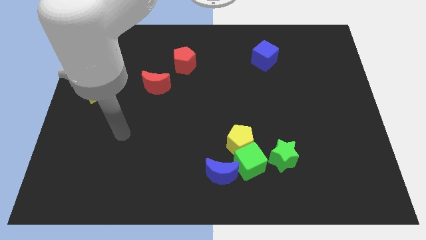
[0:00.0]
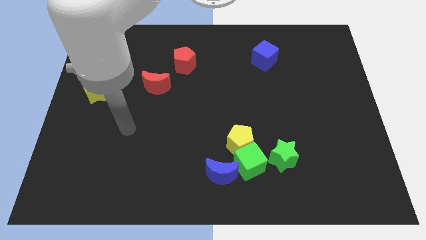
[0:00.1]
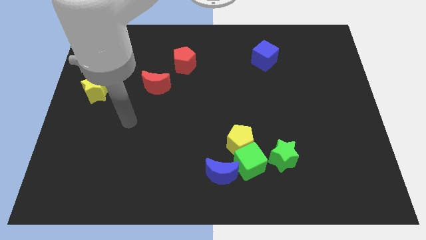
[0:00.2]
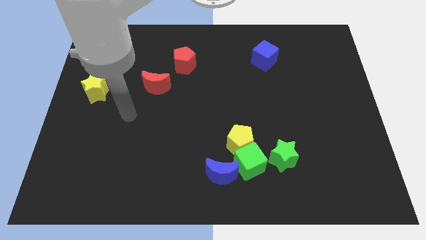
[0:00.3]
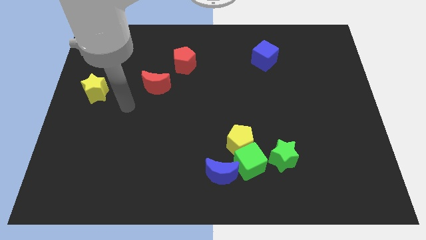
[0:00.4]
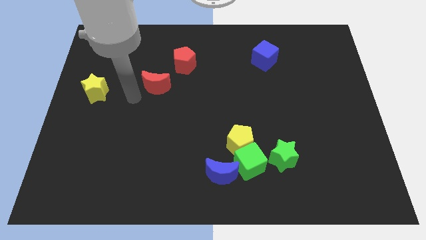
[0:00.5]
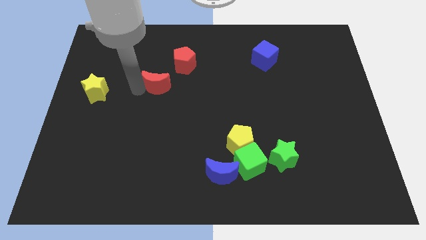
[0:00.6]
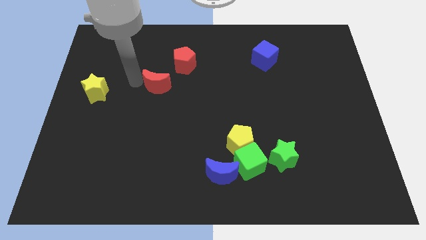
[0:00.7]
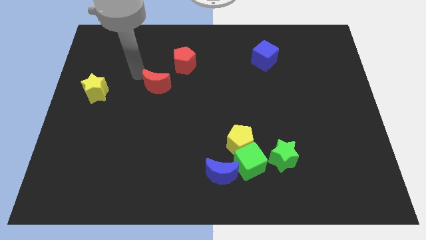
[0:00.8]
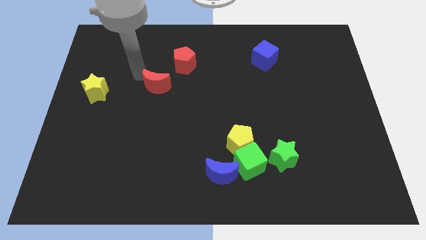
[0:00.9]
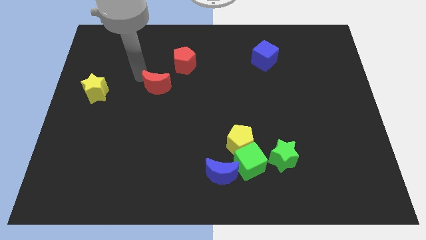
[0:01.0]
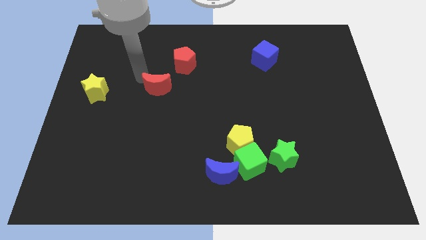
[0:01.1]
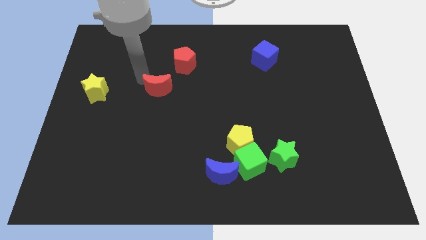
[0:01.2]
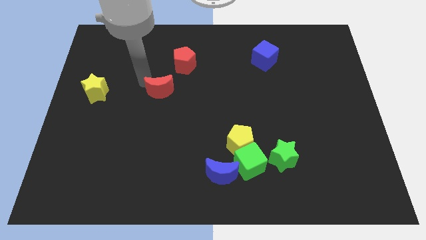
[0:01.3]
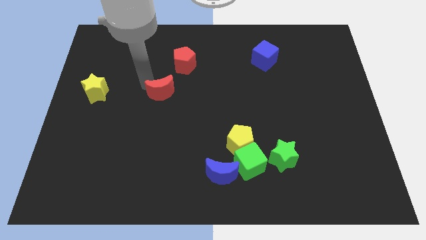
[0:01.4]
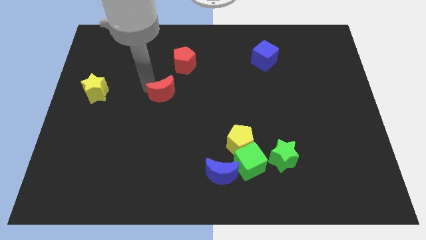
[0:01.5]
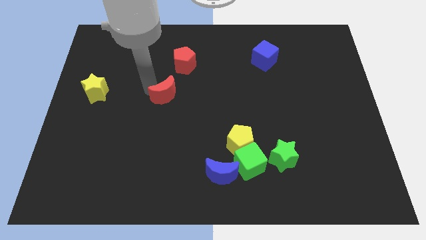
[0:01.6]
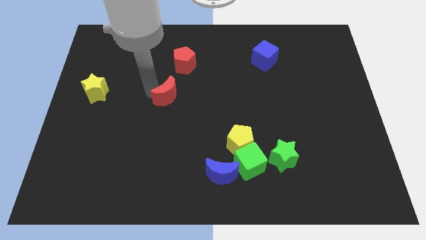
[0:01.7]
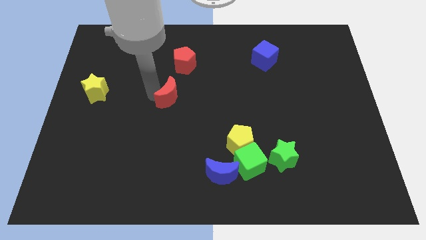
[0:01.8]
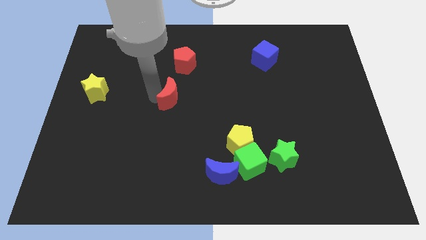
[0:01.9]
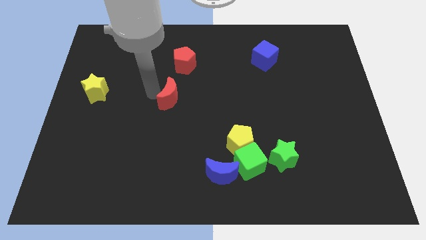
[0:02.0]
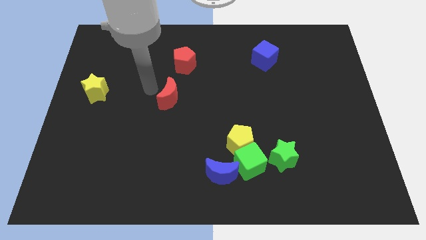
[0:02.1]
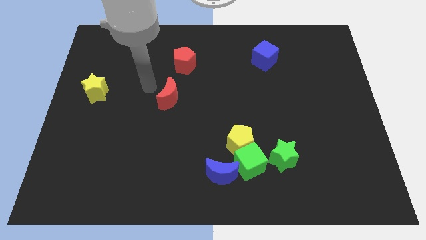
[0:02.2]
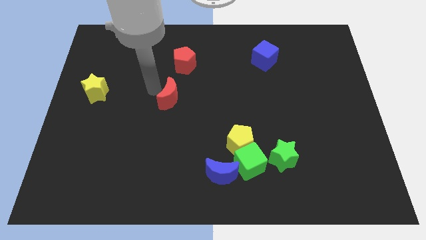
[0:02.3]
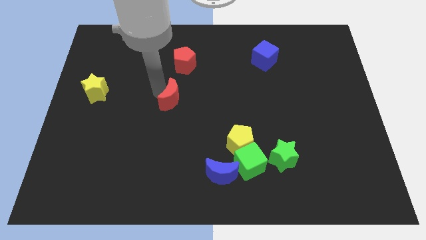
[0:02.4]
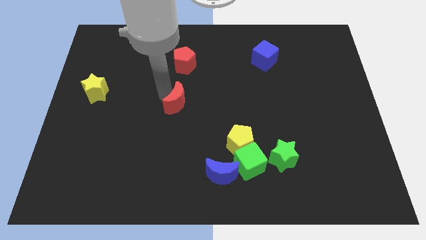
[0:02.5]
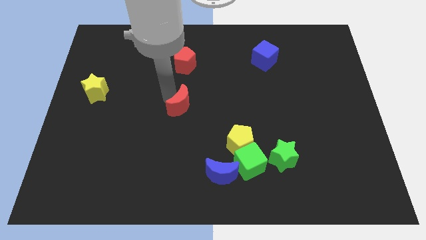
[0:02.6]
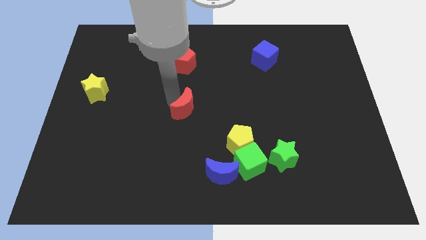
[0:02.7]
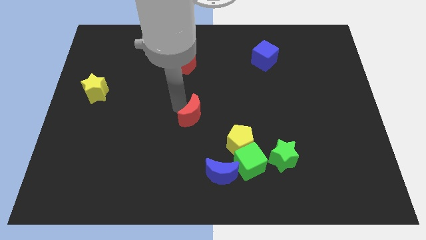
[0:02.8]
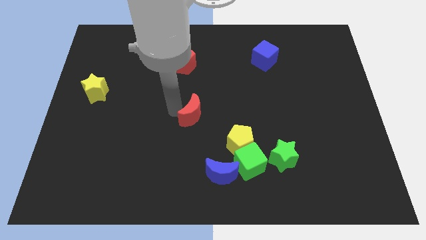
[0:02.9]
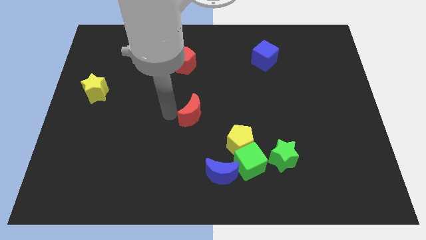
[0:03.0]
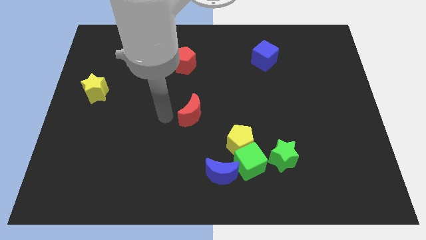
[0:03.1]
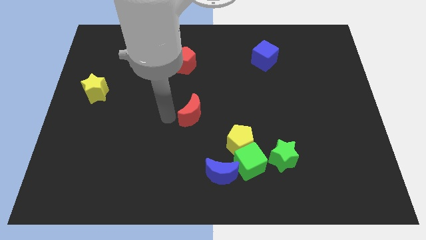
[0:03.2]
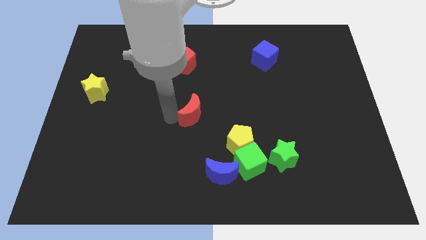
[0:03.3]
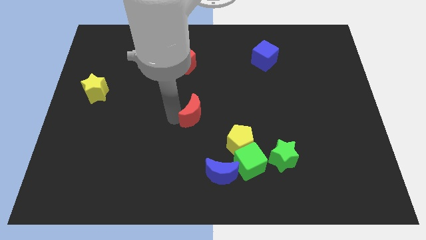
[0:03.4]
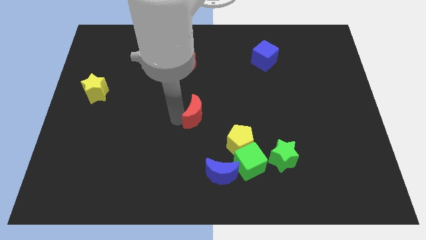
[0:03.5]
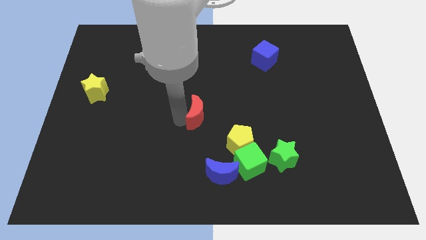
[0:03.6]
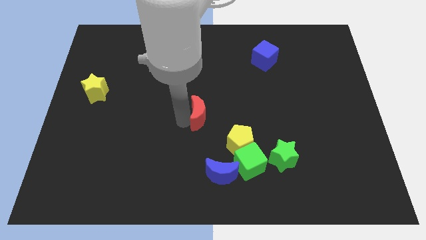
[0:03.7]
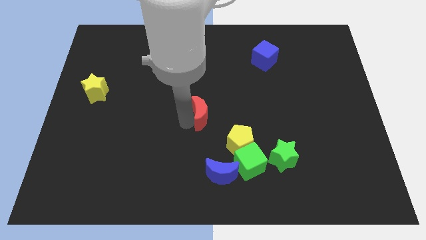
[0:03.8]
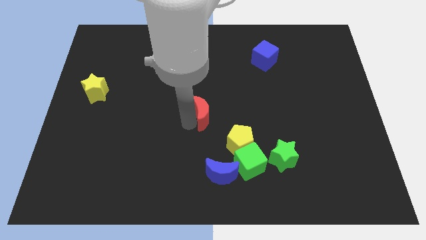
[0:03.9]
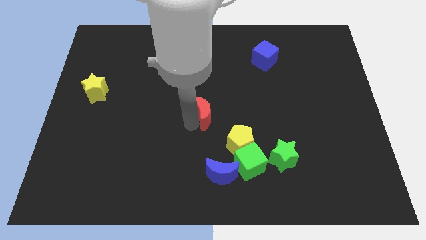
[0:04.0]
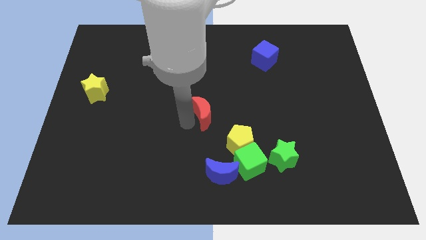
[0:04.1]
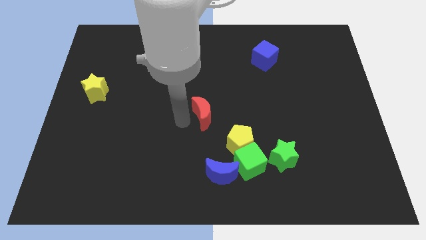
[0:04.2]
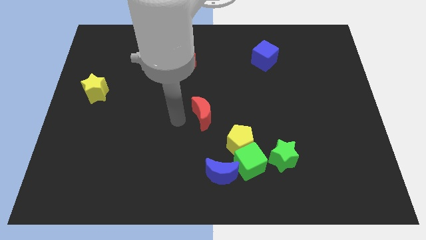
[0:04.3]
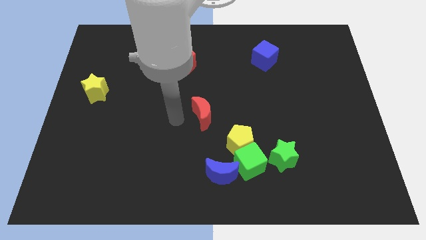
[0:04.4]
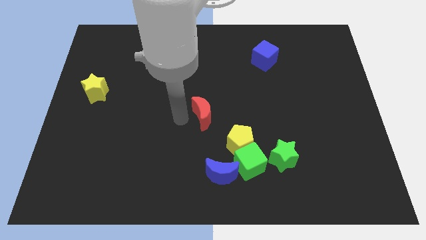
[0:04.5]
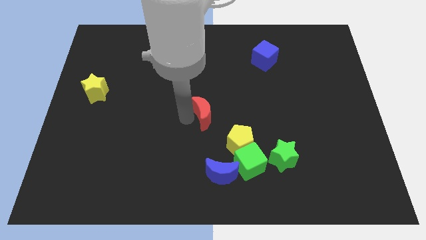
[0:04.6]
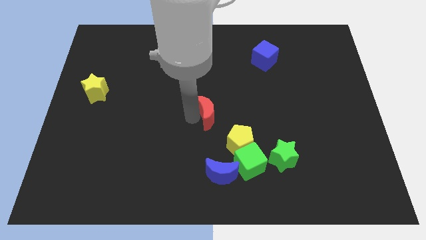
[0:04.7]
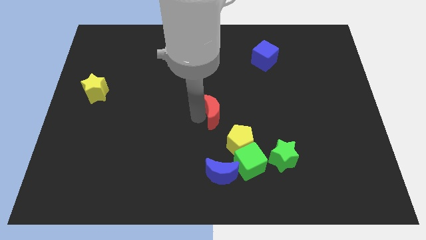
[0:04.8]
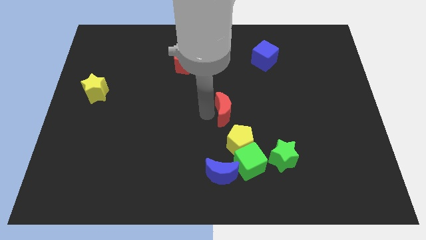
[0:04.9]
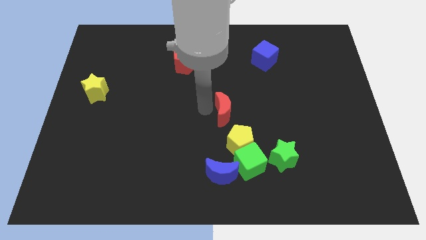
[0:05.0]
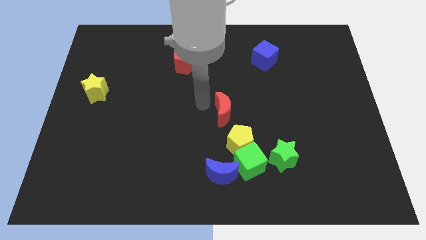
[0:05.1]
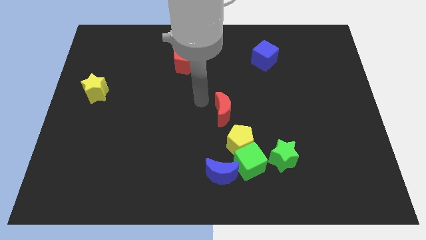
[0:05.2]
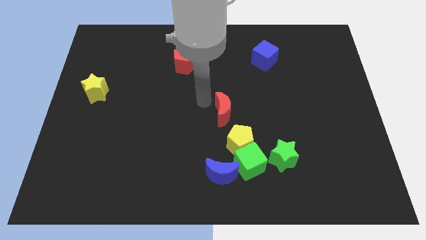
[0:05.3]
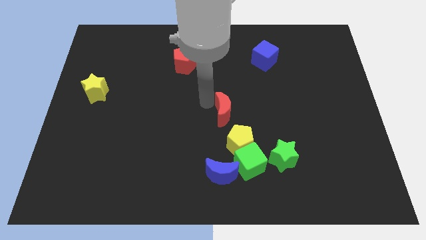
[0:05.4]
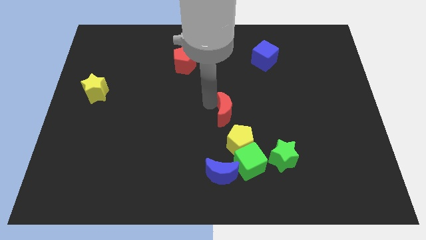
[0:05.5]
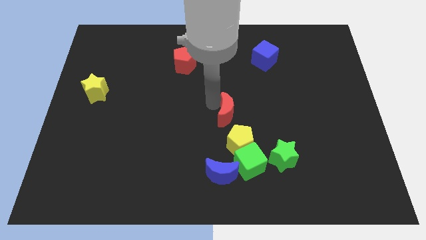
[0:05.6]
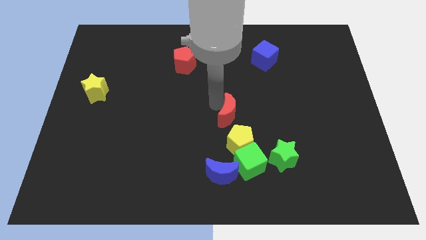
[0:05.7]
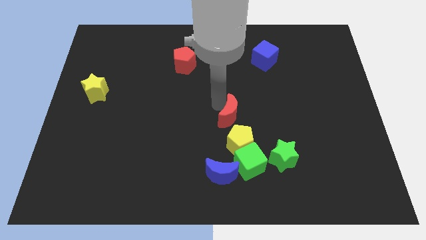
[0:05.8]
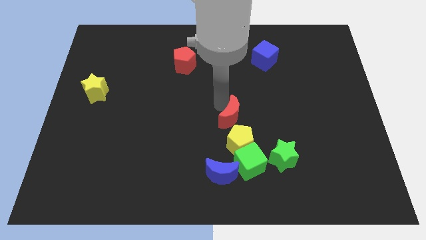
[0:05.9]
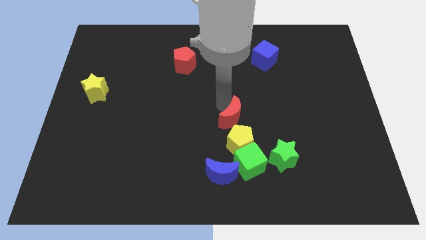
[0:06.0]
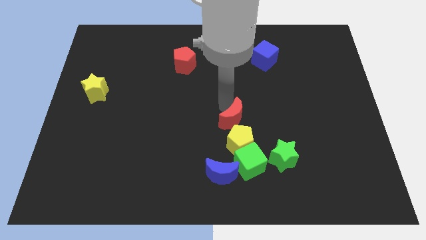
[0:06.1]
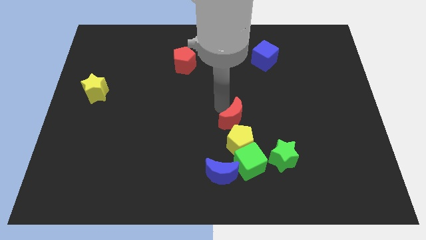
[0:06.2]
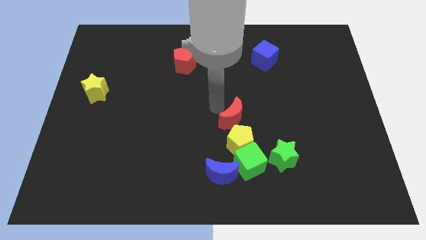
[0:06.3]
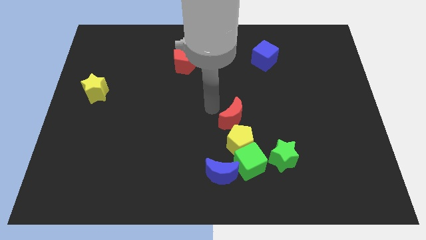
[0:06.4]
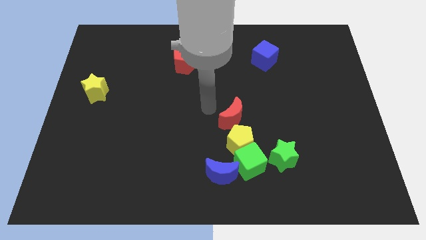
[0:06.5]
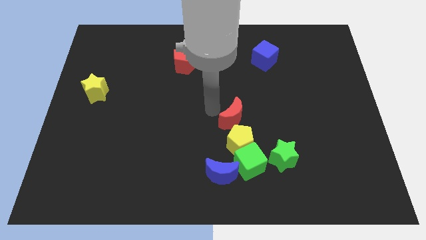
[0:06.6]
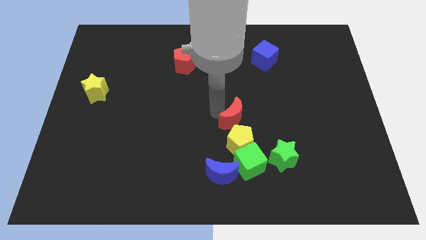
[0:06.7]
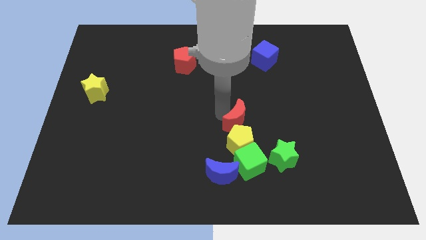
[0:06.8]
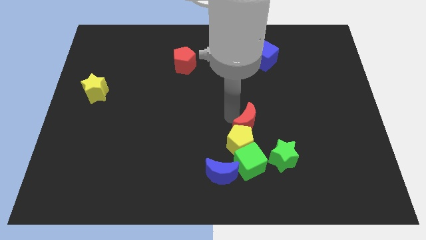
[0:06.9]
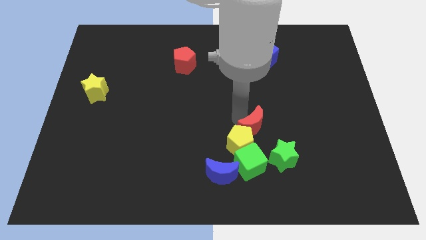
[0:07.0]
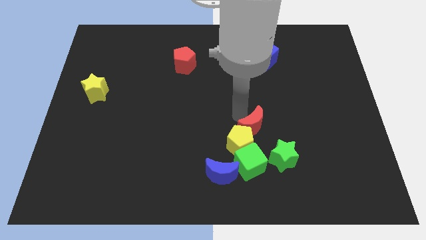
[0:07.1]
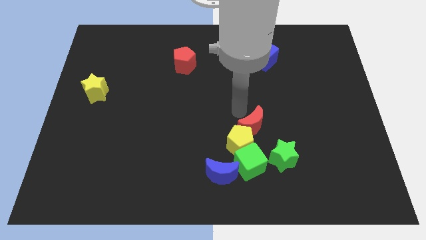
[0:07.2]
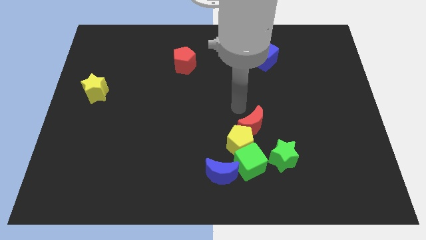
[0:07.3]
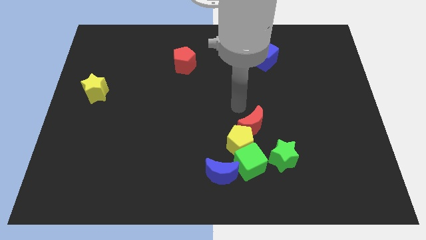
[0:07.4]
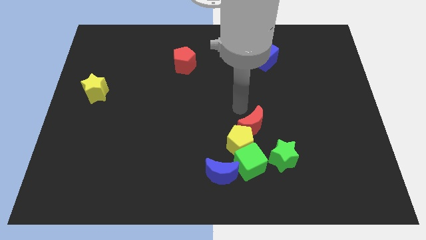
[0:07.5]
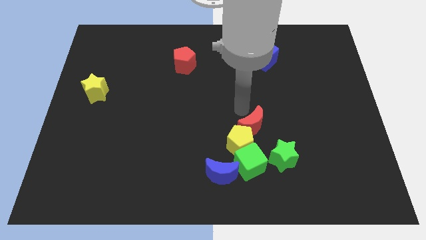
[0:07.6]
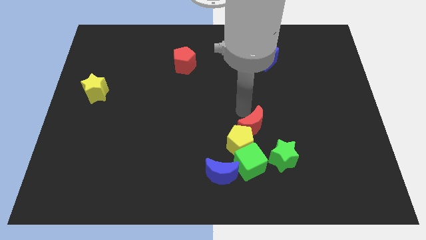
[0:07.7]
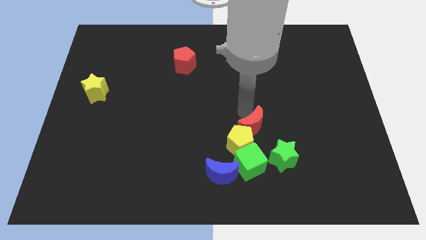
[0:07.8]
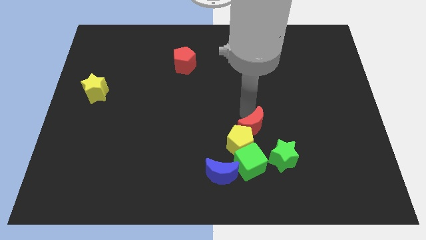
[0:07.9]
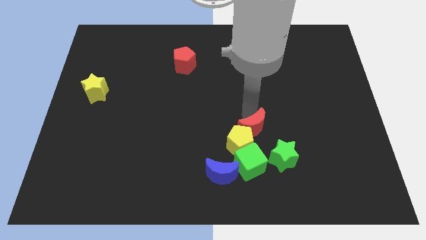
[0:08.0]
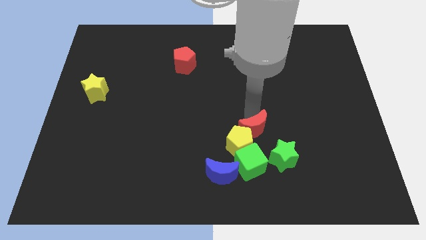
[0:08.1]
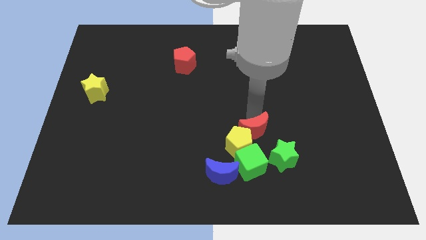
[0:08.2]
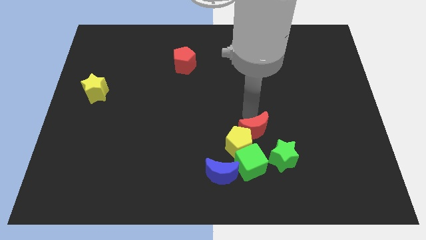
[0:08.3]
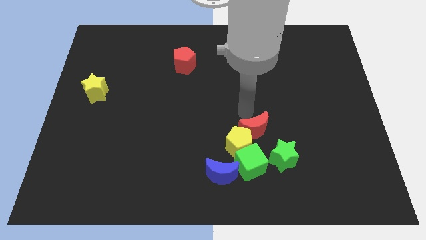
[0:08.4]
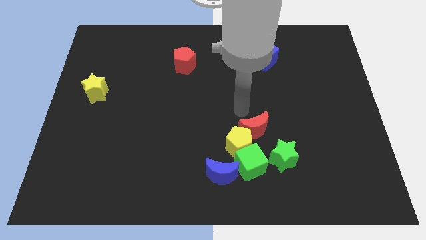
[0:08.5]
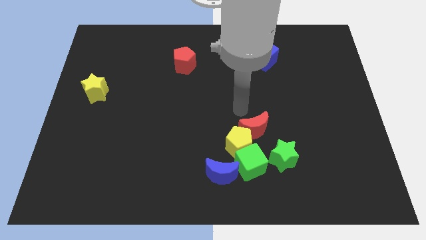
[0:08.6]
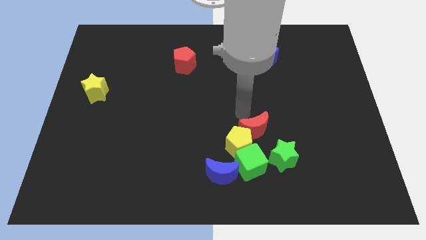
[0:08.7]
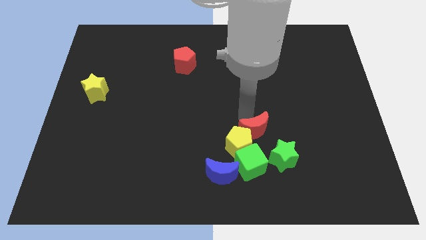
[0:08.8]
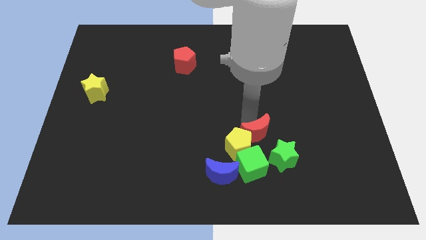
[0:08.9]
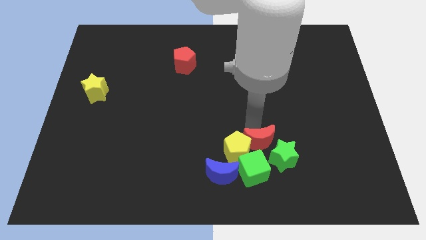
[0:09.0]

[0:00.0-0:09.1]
put the red moon to the green star
